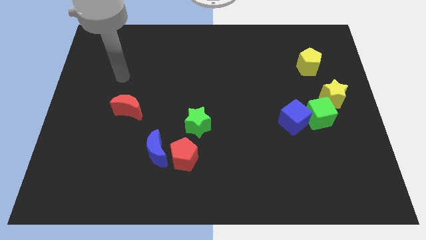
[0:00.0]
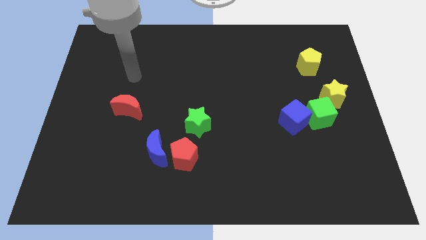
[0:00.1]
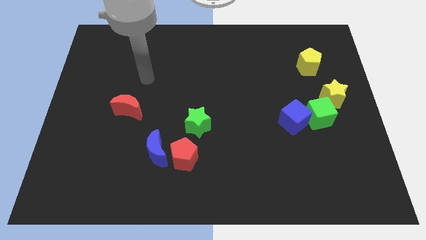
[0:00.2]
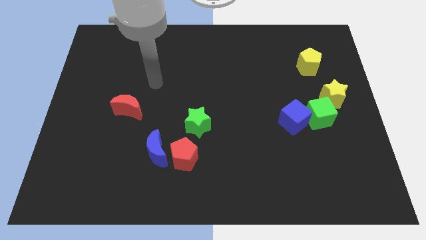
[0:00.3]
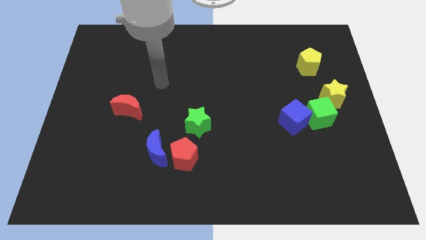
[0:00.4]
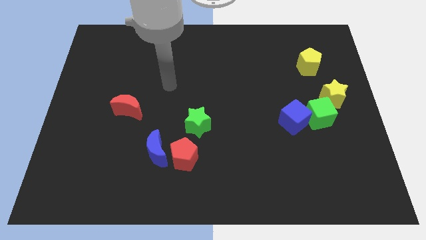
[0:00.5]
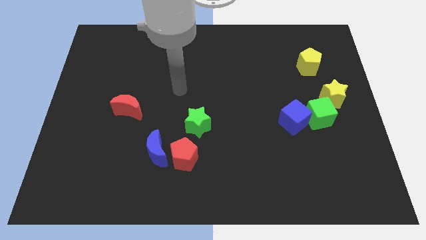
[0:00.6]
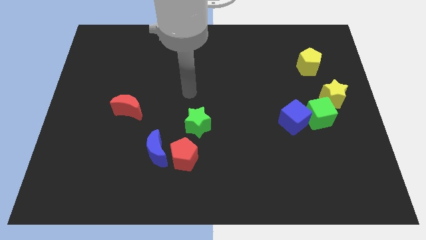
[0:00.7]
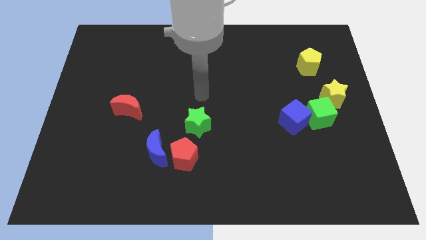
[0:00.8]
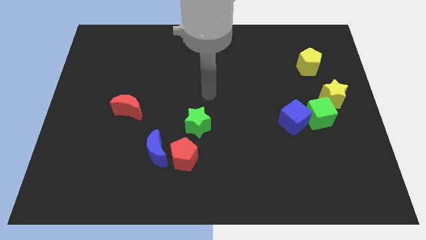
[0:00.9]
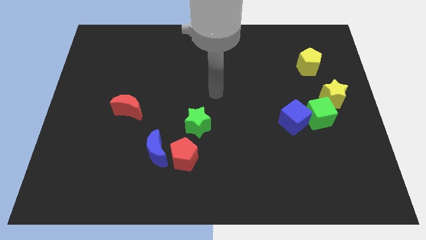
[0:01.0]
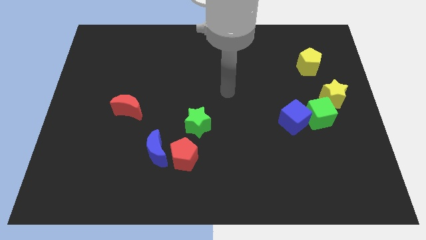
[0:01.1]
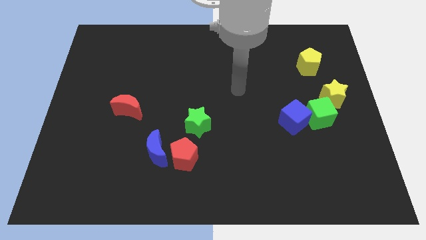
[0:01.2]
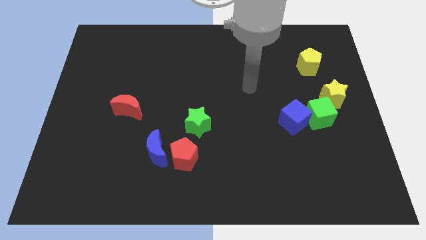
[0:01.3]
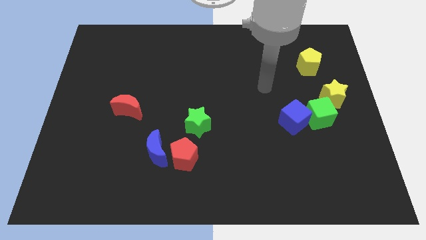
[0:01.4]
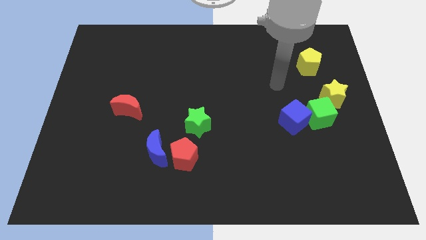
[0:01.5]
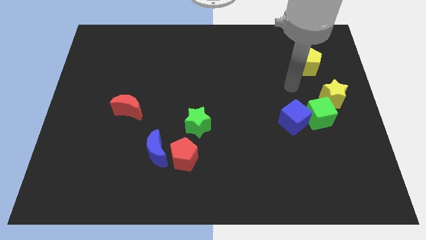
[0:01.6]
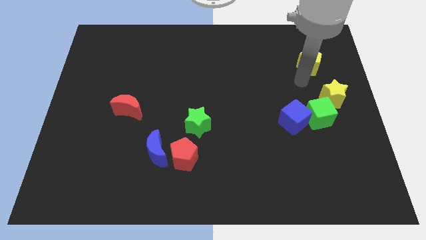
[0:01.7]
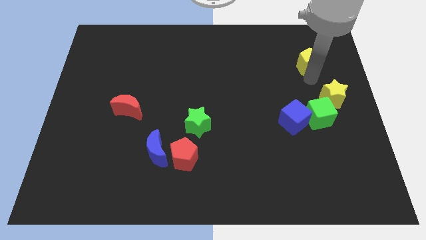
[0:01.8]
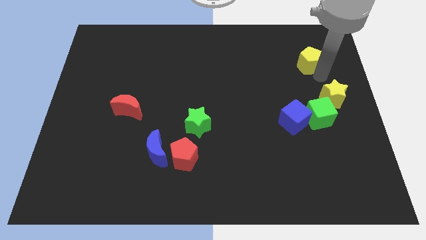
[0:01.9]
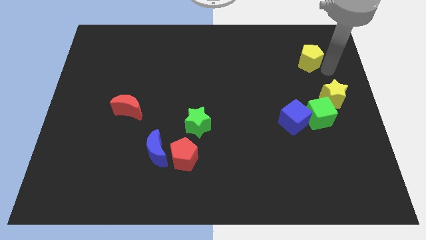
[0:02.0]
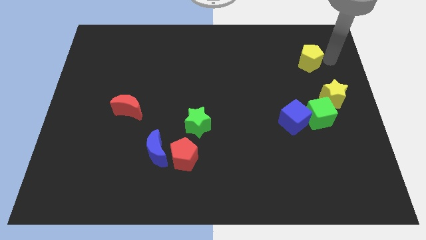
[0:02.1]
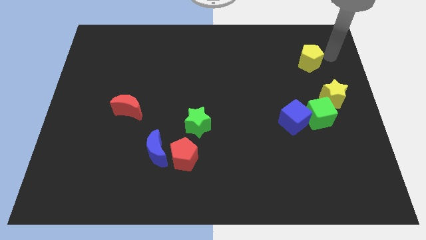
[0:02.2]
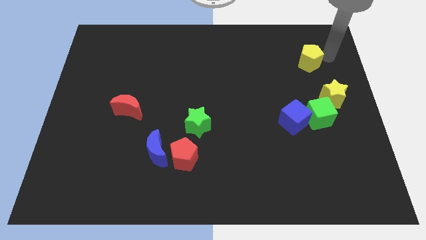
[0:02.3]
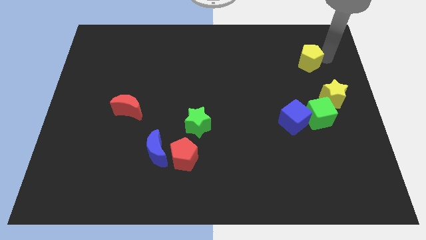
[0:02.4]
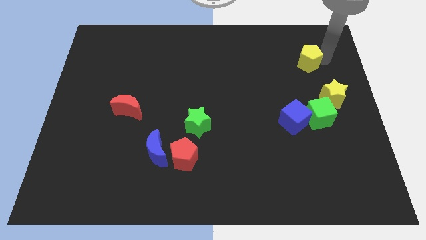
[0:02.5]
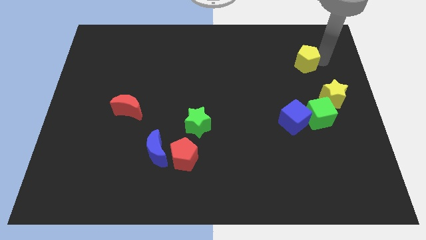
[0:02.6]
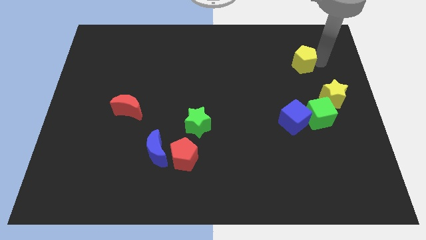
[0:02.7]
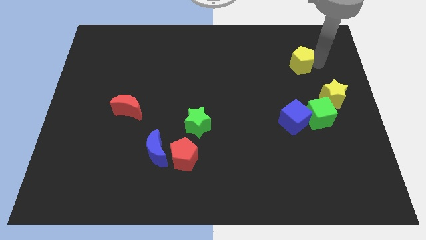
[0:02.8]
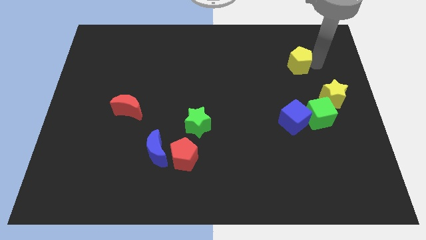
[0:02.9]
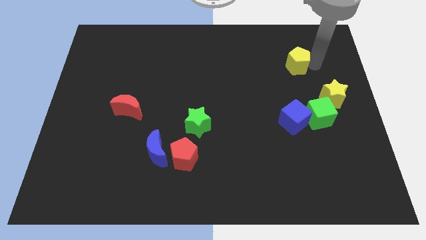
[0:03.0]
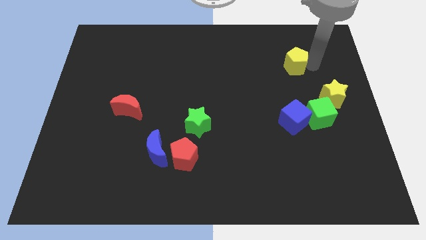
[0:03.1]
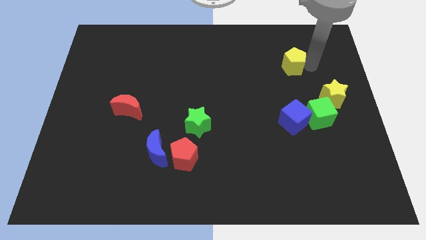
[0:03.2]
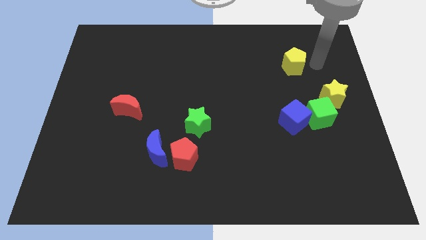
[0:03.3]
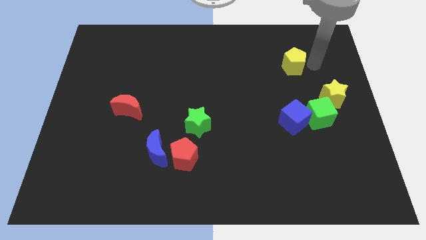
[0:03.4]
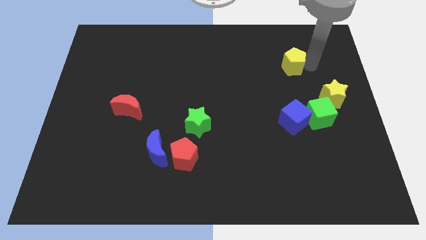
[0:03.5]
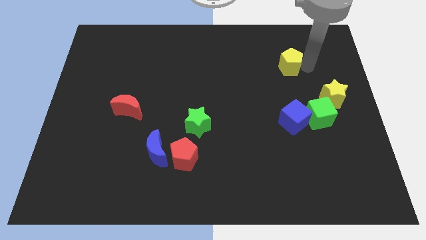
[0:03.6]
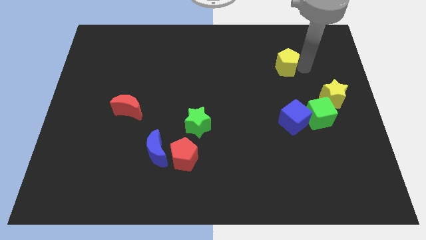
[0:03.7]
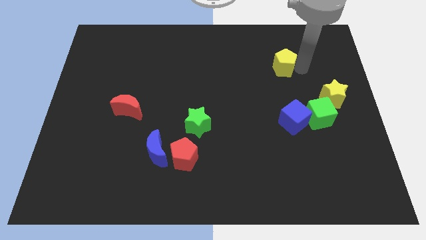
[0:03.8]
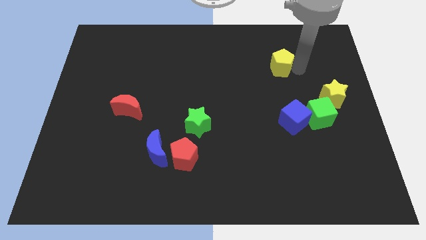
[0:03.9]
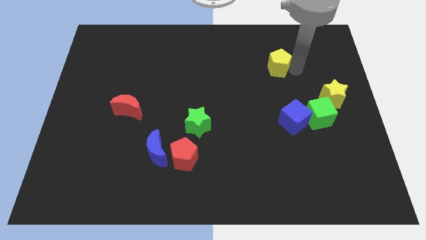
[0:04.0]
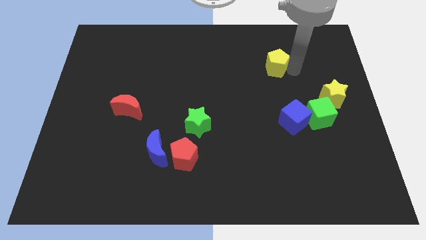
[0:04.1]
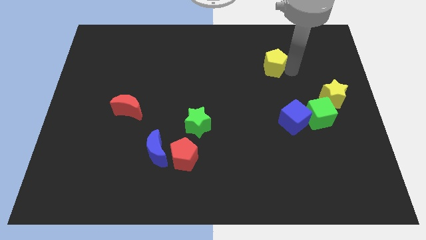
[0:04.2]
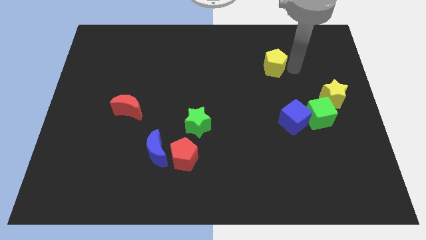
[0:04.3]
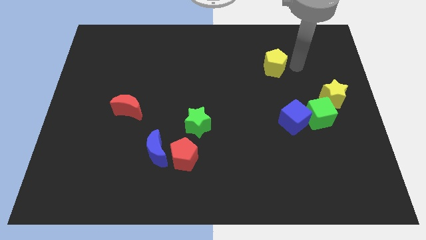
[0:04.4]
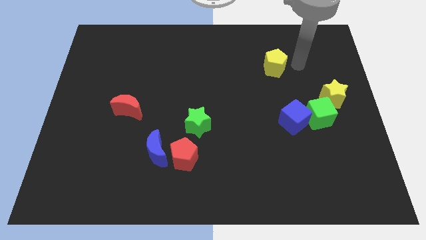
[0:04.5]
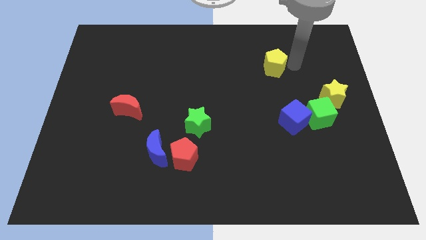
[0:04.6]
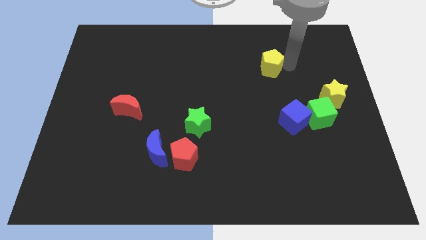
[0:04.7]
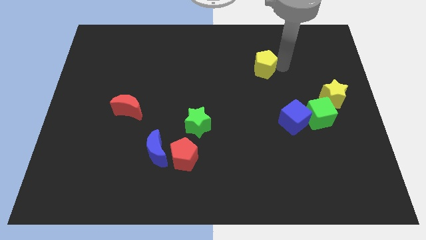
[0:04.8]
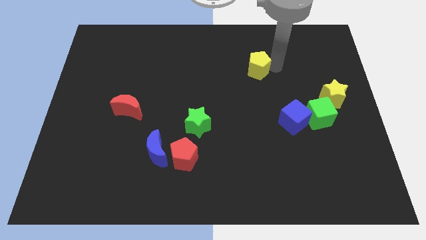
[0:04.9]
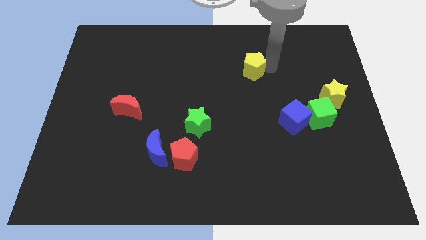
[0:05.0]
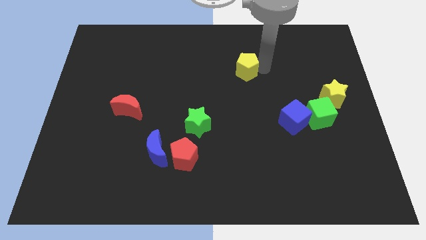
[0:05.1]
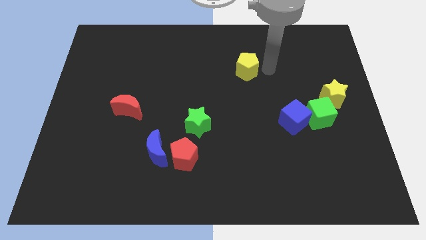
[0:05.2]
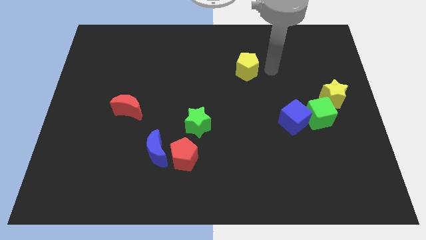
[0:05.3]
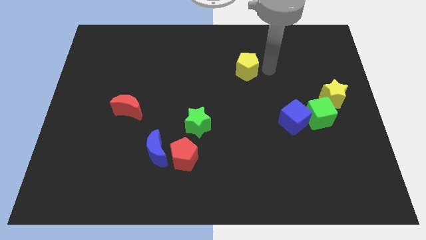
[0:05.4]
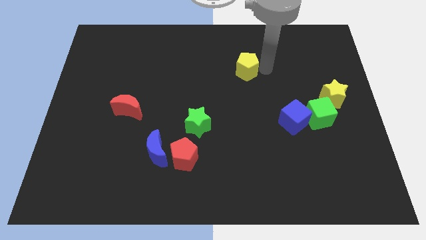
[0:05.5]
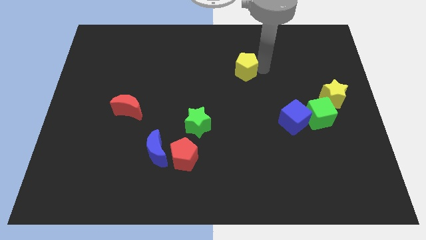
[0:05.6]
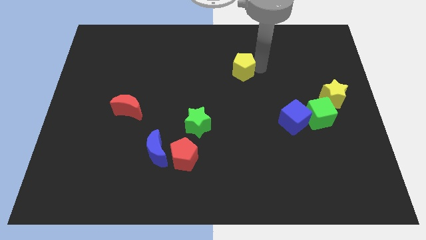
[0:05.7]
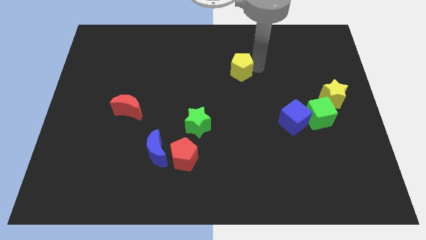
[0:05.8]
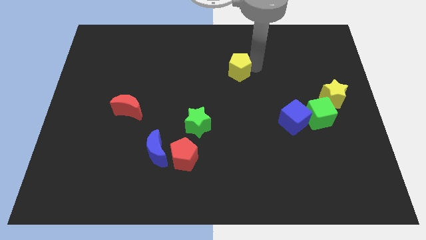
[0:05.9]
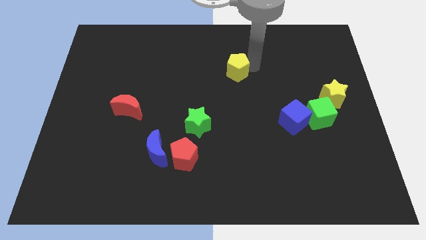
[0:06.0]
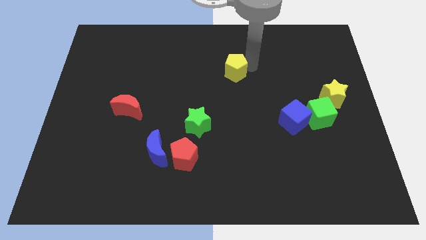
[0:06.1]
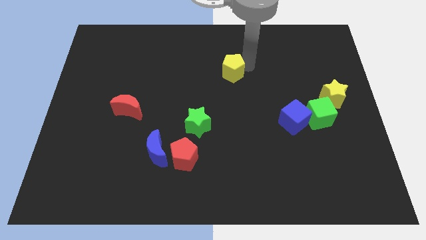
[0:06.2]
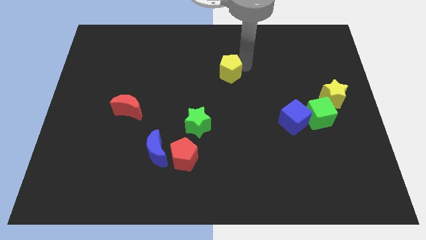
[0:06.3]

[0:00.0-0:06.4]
push the yellow pentagon to the left

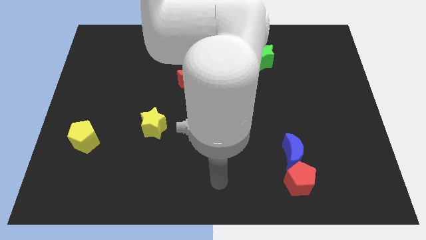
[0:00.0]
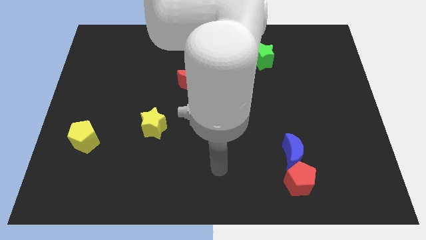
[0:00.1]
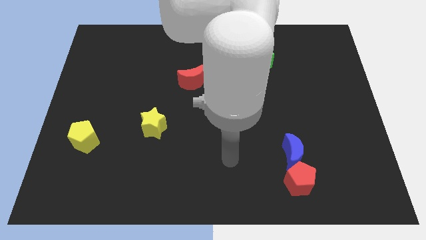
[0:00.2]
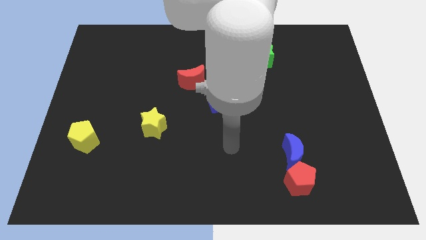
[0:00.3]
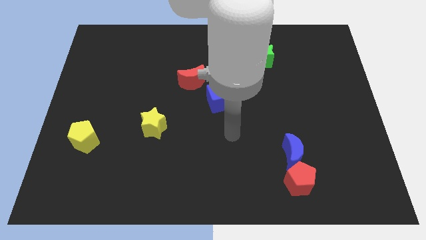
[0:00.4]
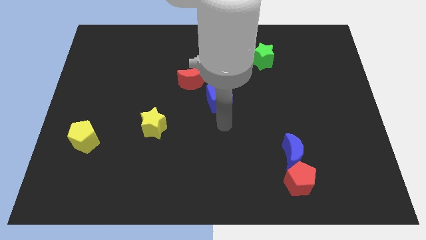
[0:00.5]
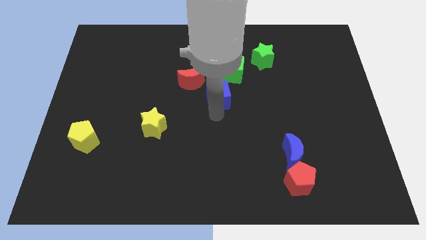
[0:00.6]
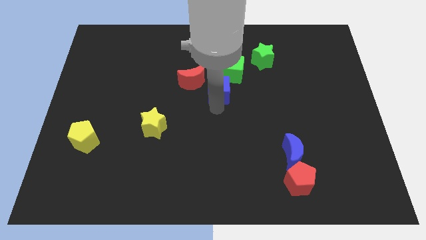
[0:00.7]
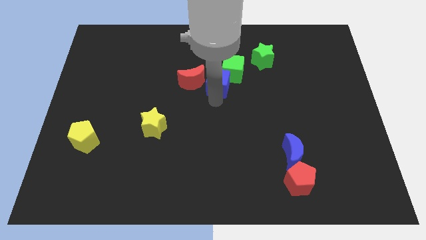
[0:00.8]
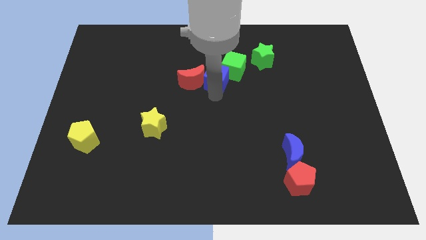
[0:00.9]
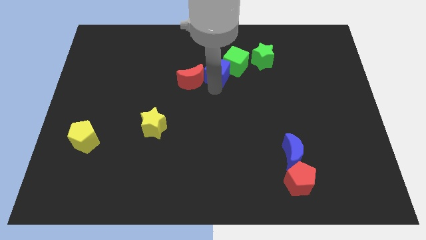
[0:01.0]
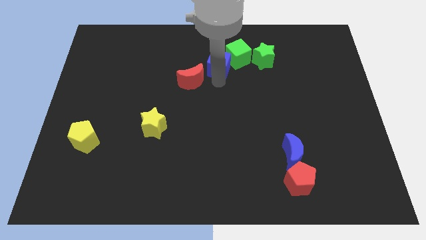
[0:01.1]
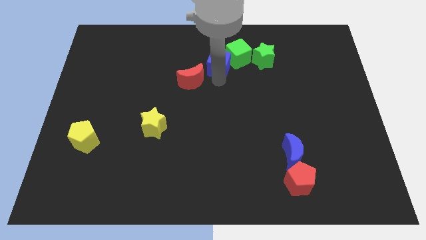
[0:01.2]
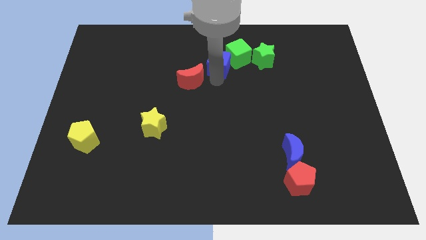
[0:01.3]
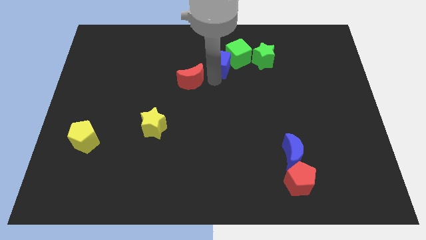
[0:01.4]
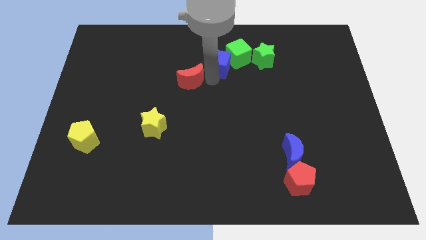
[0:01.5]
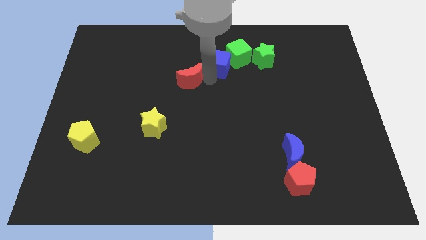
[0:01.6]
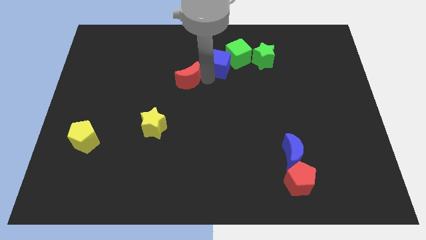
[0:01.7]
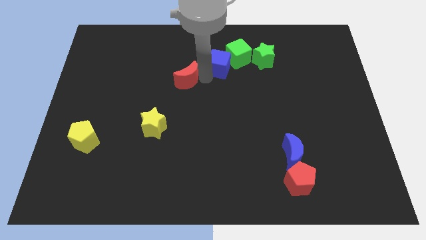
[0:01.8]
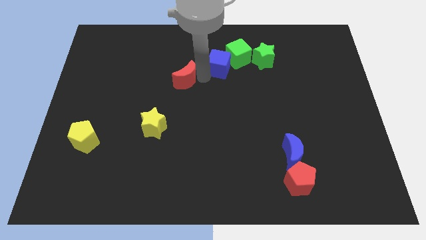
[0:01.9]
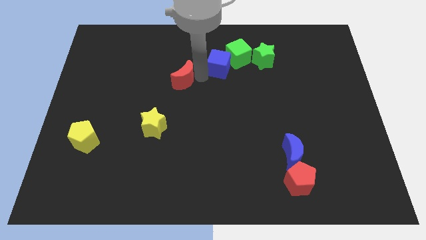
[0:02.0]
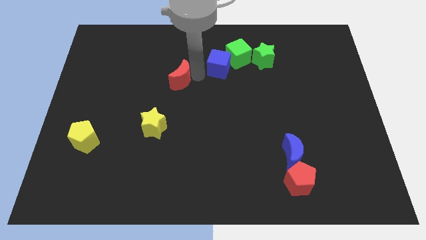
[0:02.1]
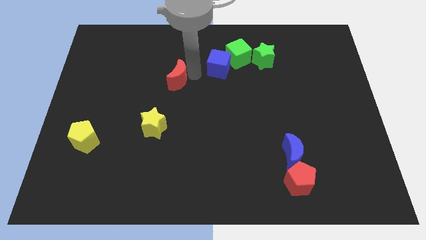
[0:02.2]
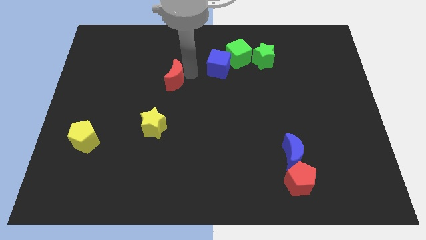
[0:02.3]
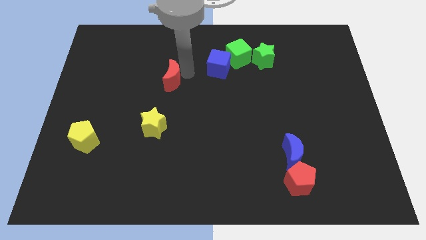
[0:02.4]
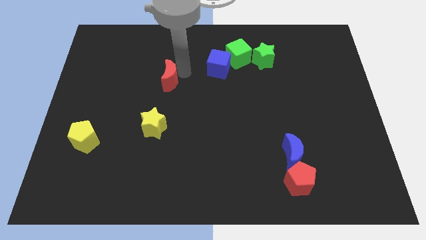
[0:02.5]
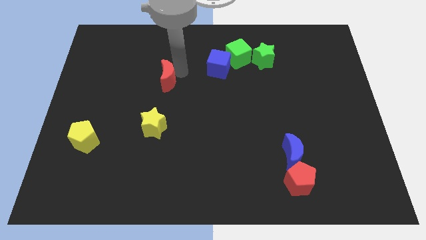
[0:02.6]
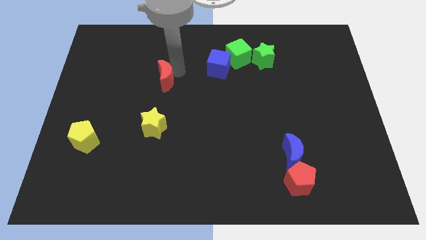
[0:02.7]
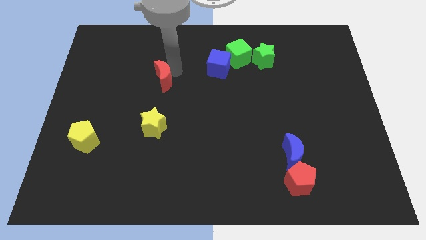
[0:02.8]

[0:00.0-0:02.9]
slide the red moon slightly left
